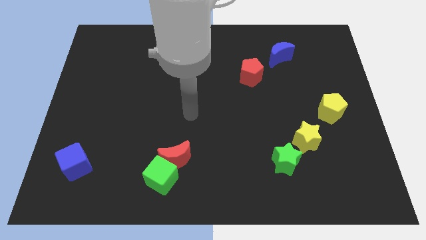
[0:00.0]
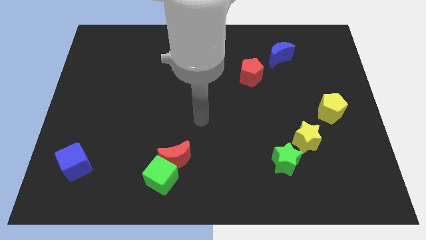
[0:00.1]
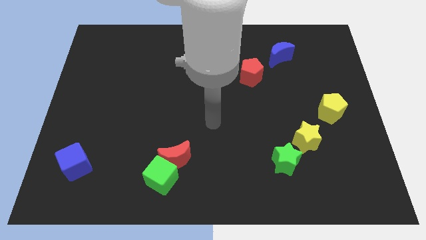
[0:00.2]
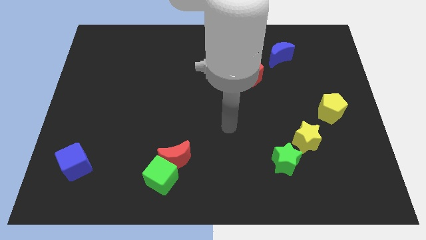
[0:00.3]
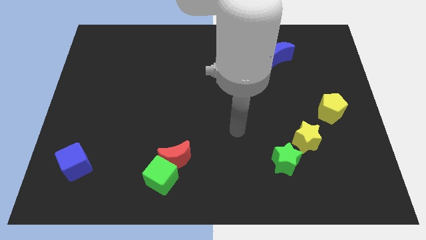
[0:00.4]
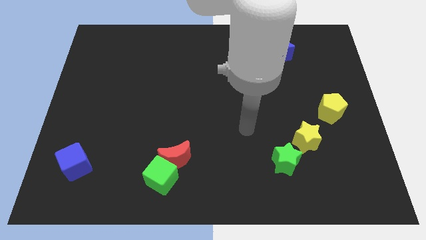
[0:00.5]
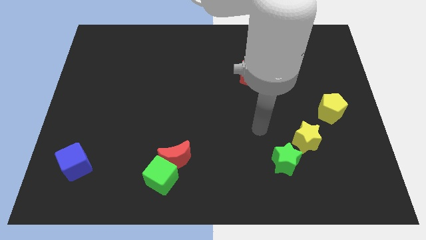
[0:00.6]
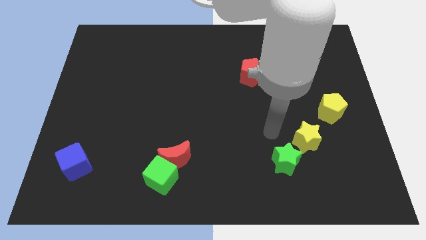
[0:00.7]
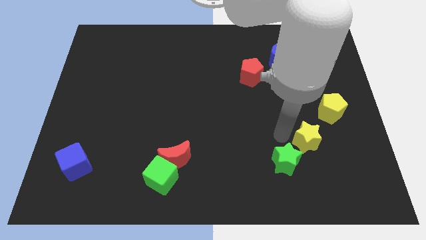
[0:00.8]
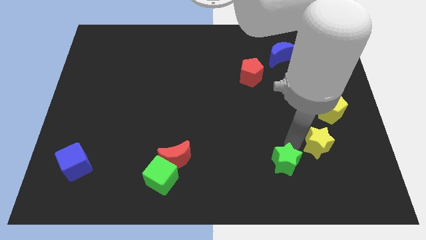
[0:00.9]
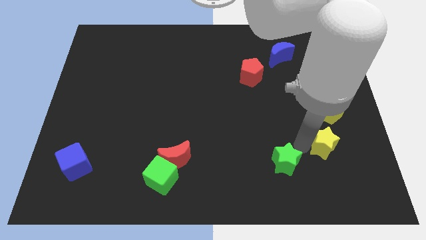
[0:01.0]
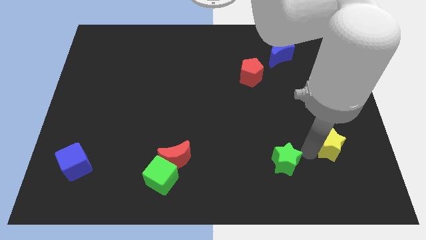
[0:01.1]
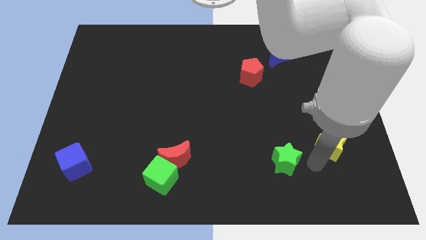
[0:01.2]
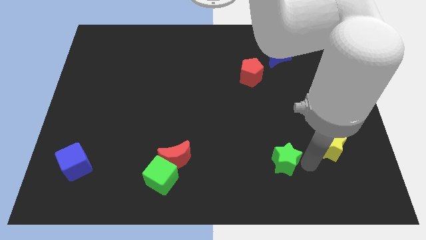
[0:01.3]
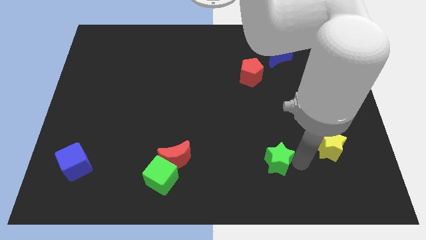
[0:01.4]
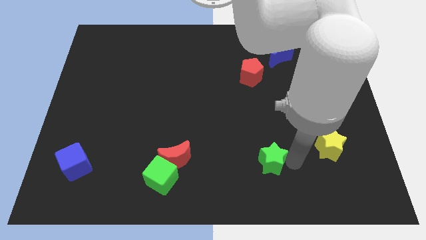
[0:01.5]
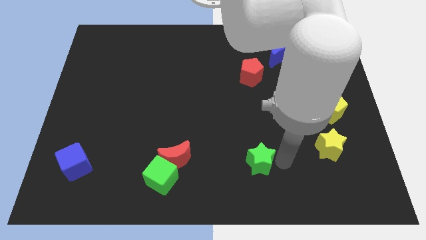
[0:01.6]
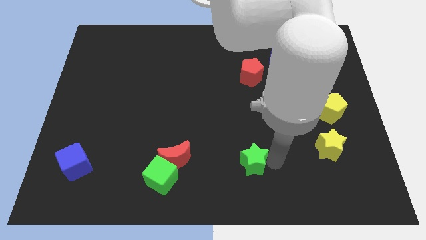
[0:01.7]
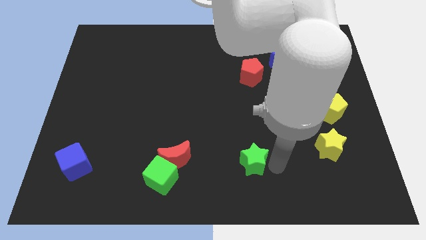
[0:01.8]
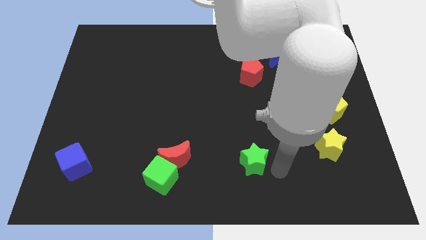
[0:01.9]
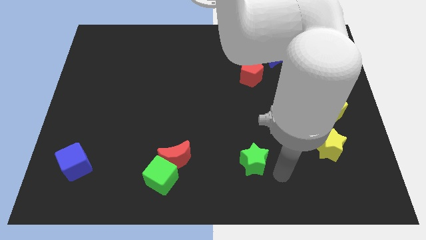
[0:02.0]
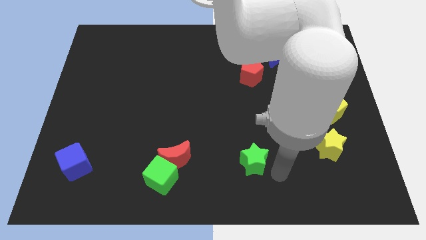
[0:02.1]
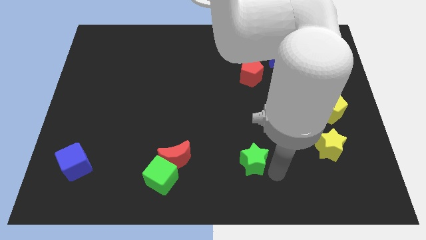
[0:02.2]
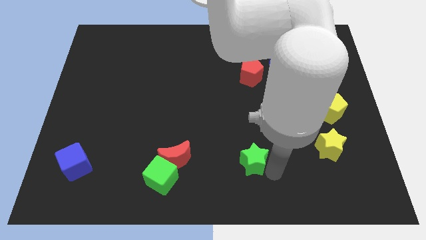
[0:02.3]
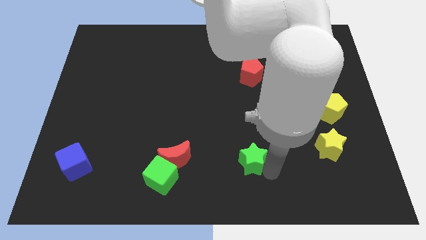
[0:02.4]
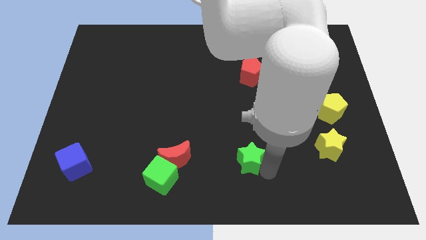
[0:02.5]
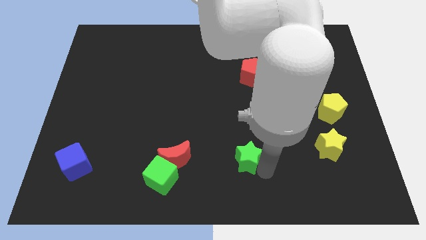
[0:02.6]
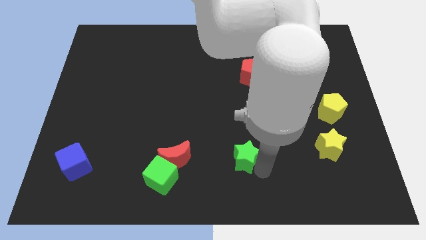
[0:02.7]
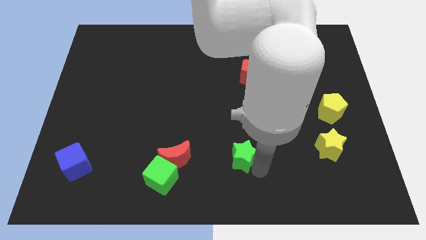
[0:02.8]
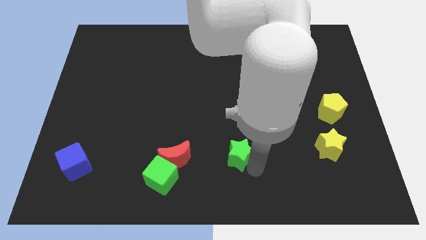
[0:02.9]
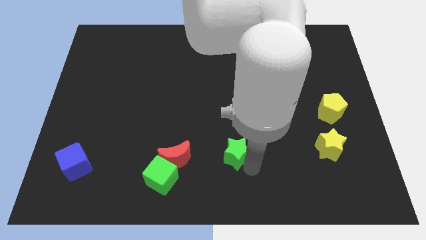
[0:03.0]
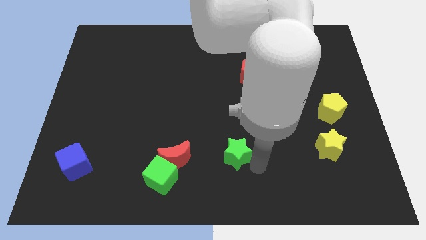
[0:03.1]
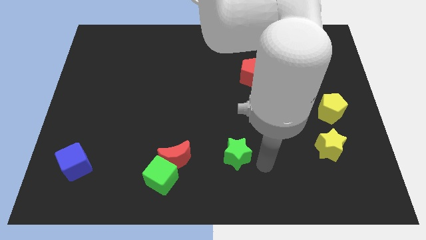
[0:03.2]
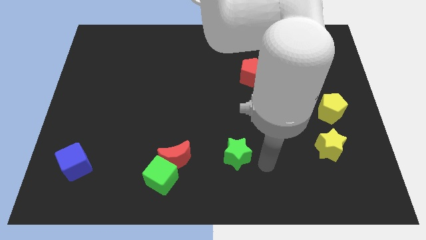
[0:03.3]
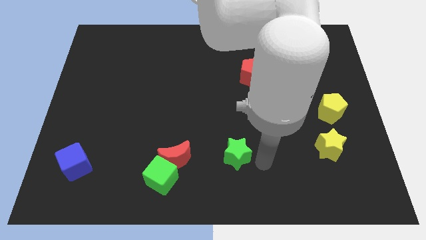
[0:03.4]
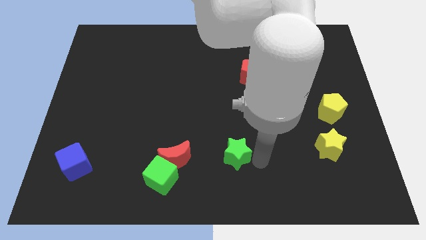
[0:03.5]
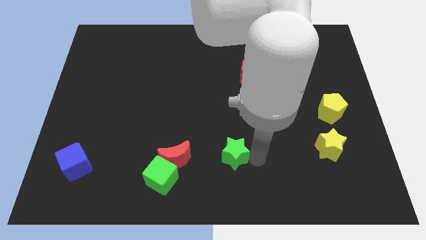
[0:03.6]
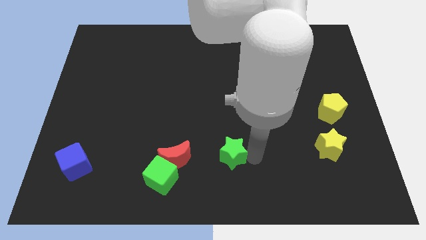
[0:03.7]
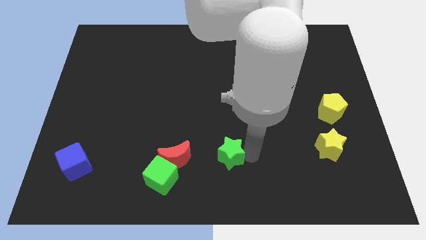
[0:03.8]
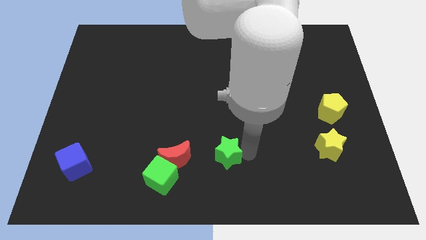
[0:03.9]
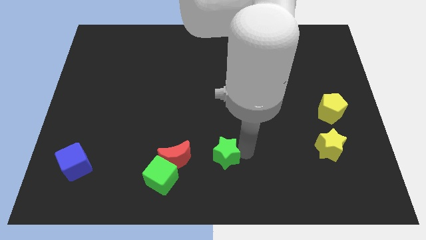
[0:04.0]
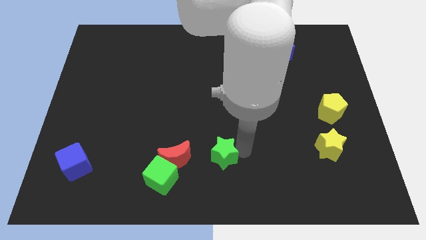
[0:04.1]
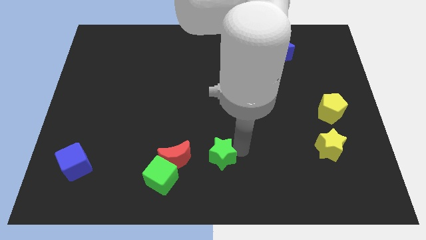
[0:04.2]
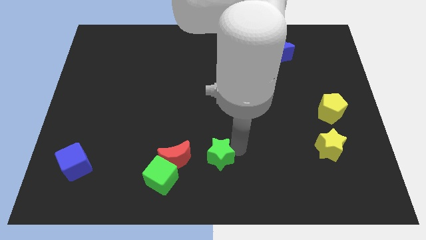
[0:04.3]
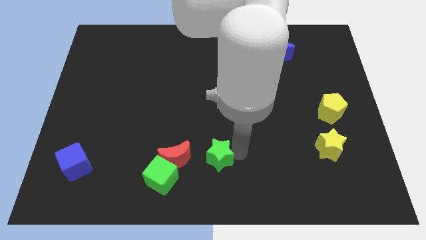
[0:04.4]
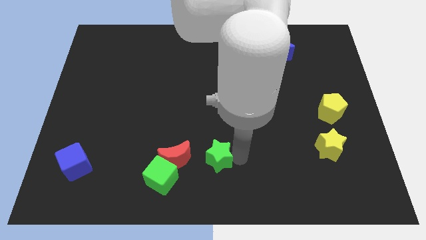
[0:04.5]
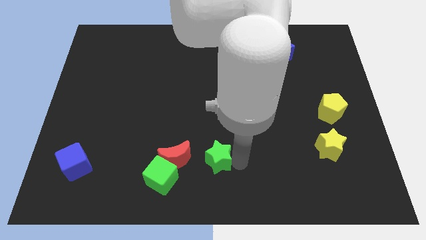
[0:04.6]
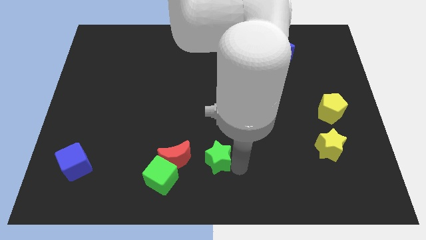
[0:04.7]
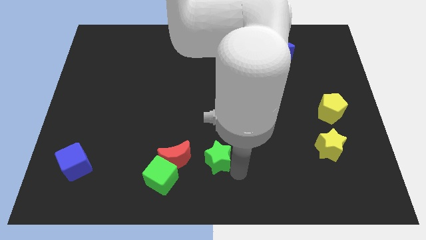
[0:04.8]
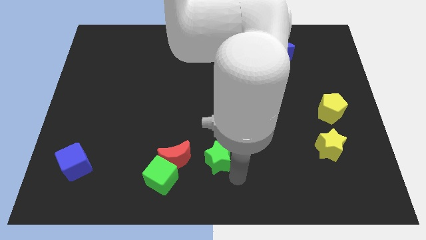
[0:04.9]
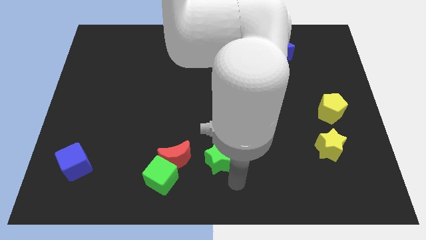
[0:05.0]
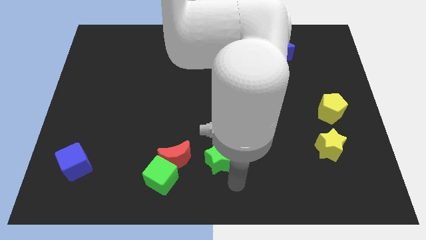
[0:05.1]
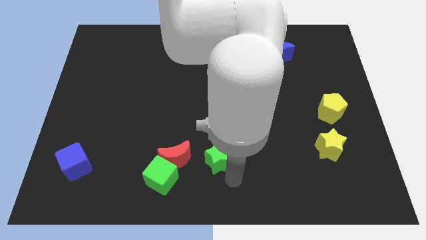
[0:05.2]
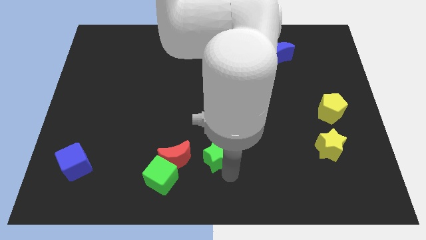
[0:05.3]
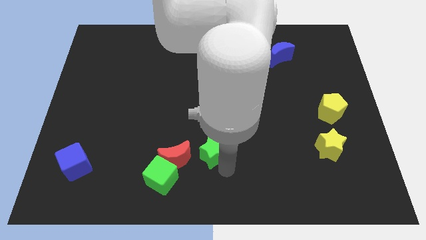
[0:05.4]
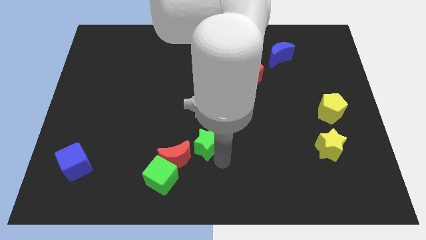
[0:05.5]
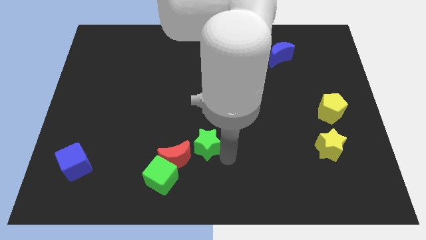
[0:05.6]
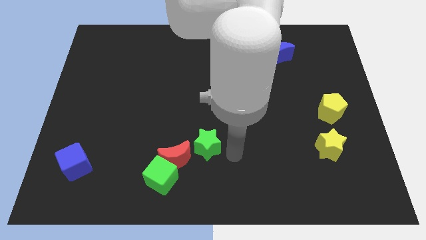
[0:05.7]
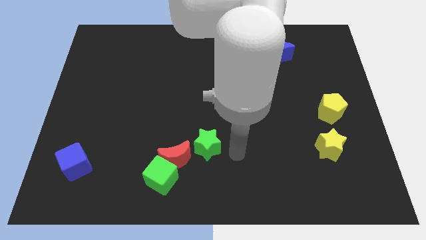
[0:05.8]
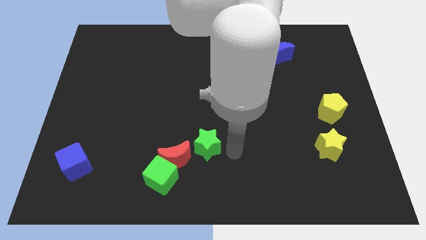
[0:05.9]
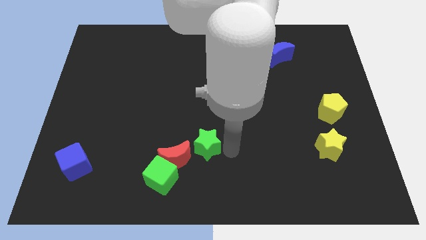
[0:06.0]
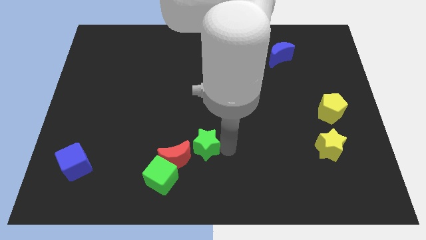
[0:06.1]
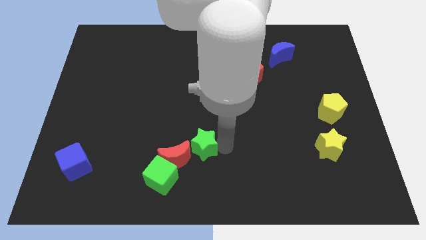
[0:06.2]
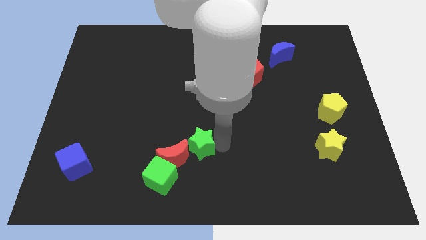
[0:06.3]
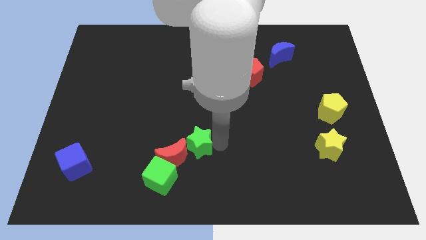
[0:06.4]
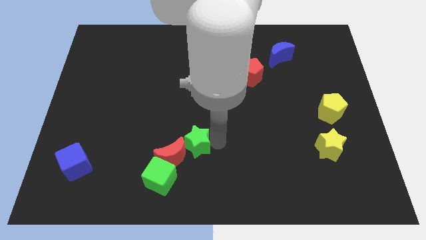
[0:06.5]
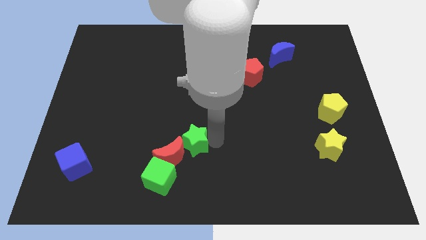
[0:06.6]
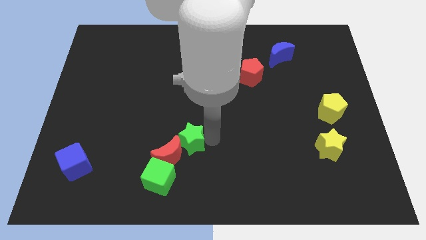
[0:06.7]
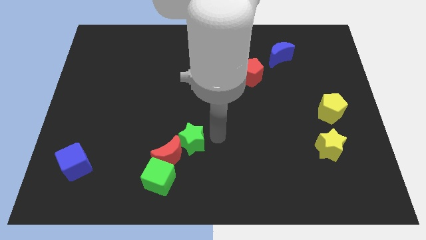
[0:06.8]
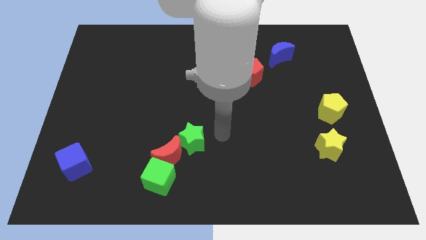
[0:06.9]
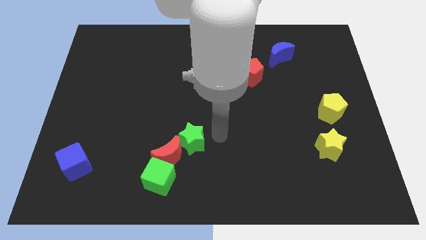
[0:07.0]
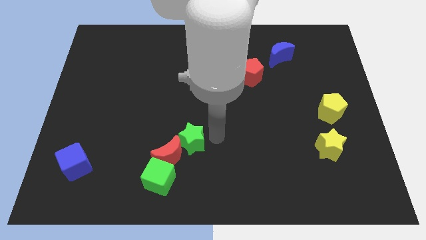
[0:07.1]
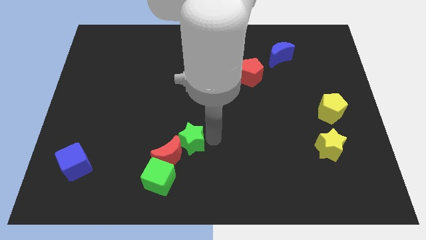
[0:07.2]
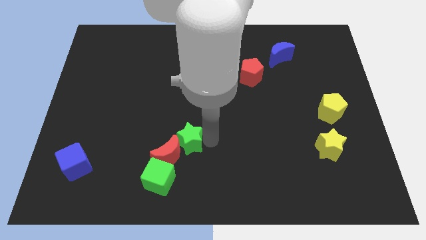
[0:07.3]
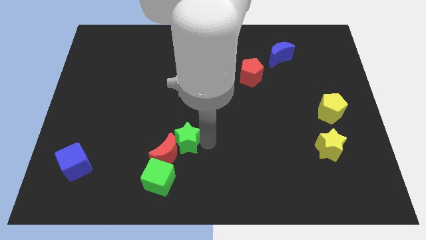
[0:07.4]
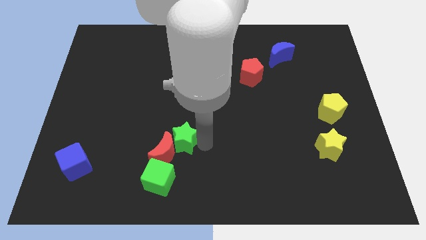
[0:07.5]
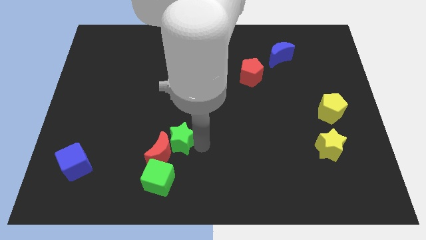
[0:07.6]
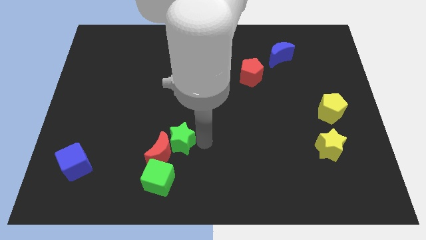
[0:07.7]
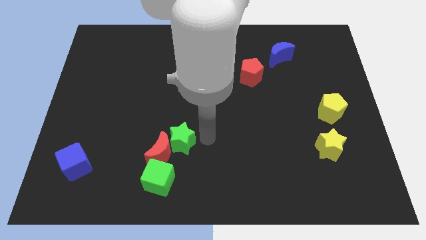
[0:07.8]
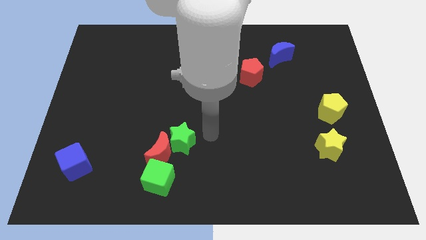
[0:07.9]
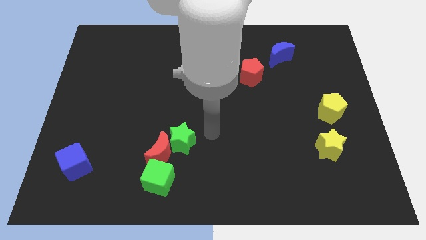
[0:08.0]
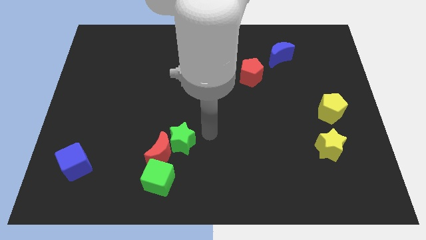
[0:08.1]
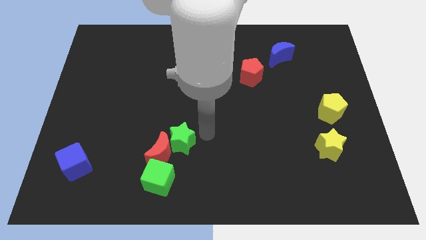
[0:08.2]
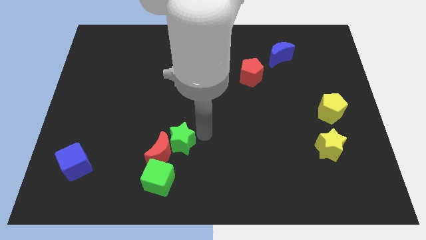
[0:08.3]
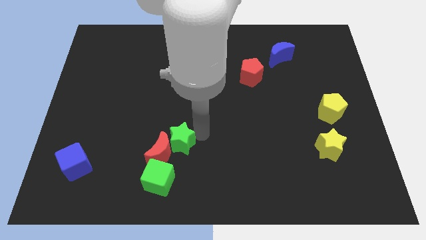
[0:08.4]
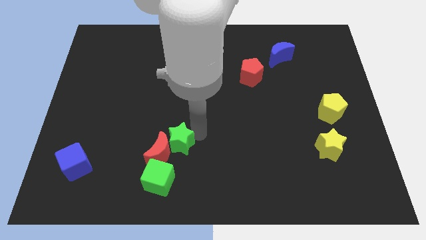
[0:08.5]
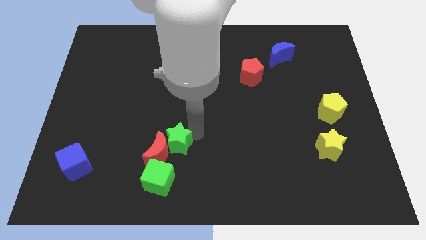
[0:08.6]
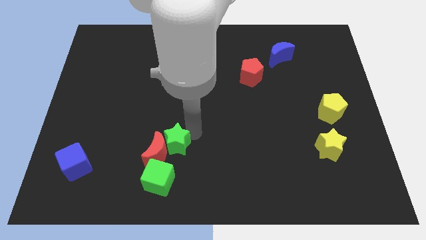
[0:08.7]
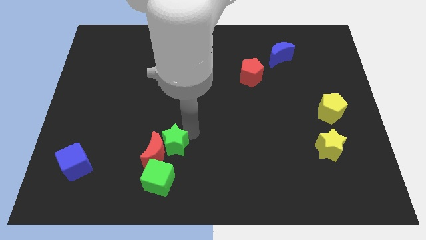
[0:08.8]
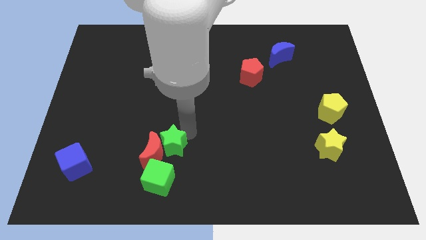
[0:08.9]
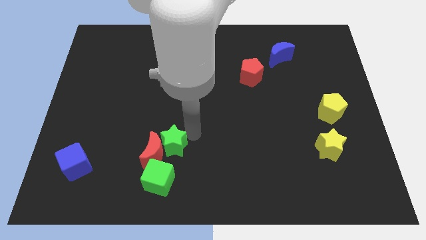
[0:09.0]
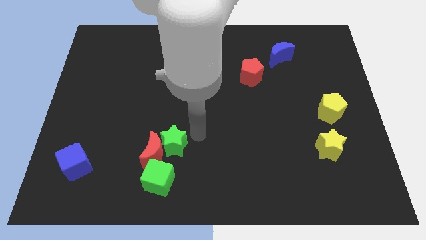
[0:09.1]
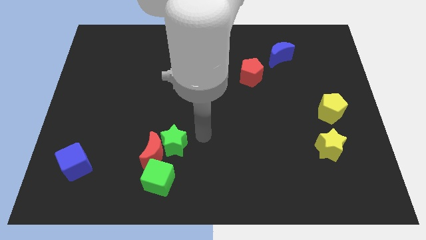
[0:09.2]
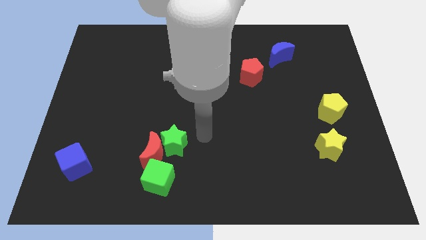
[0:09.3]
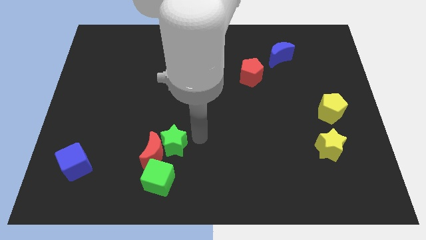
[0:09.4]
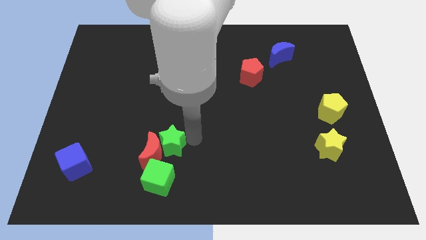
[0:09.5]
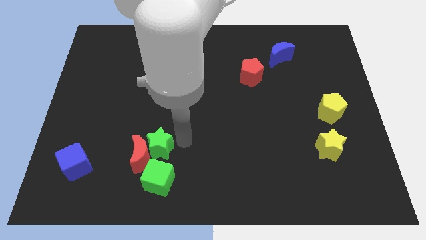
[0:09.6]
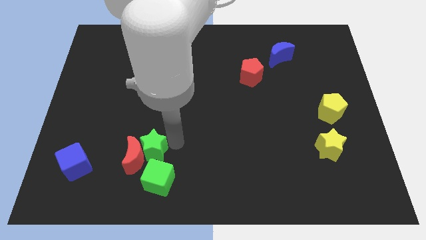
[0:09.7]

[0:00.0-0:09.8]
put the green star to the top left side of the green cube
